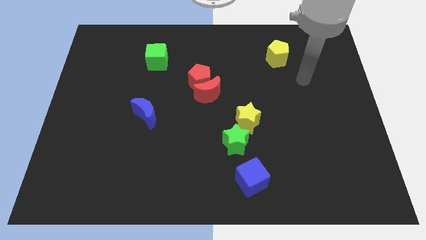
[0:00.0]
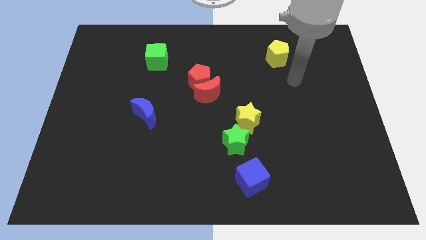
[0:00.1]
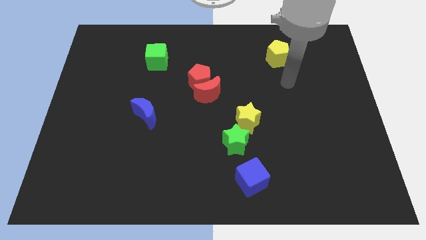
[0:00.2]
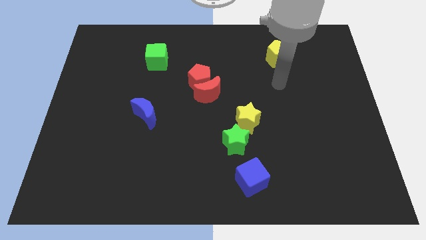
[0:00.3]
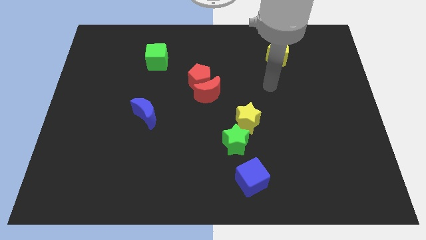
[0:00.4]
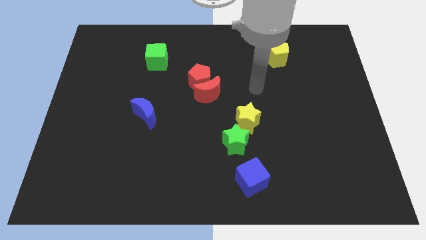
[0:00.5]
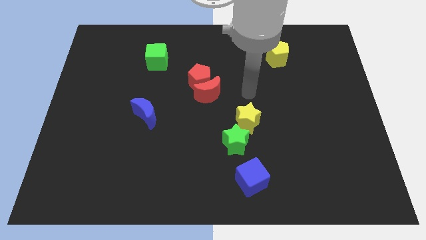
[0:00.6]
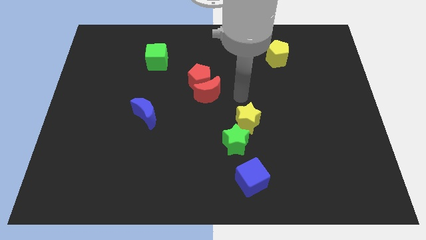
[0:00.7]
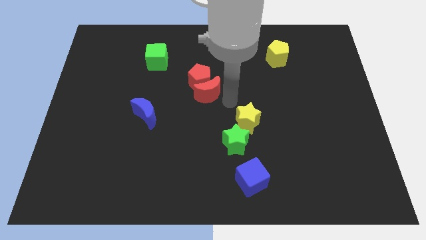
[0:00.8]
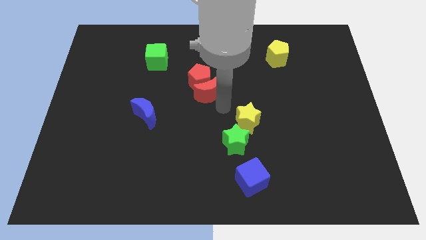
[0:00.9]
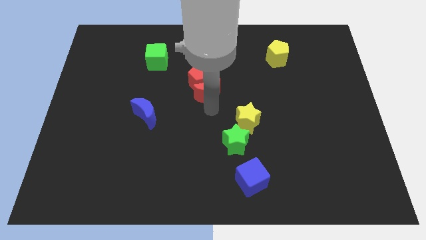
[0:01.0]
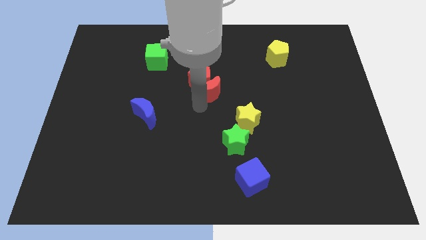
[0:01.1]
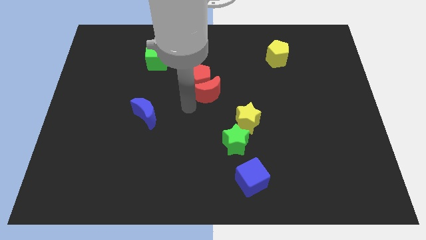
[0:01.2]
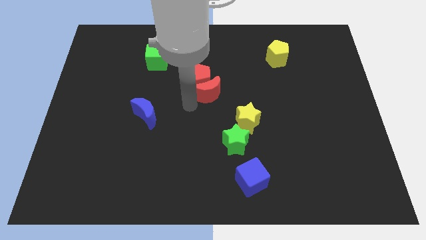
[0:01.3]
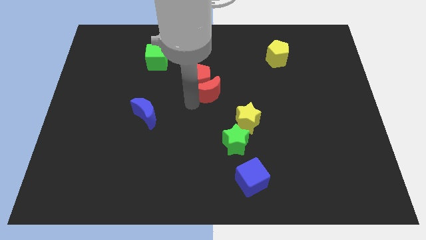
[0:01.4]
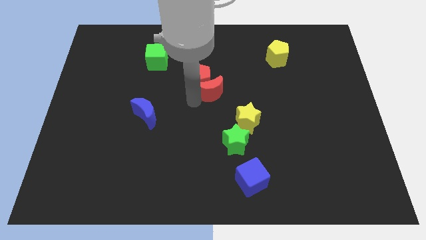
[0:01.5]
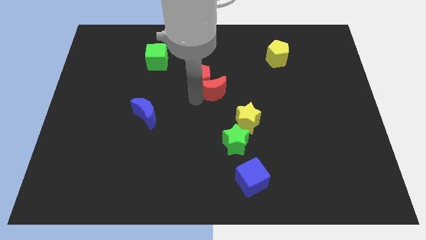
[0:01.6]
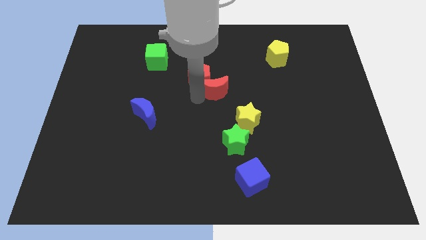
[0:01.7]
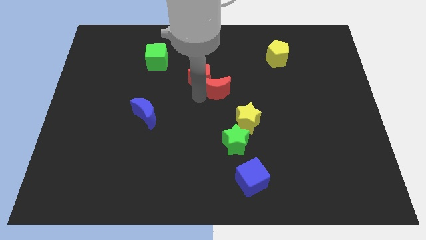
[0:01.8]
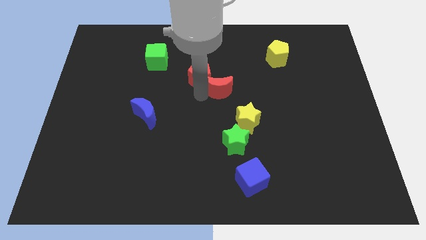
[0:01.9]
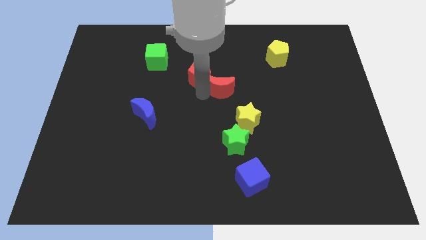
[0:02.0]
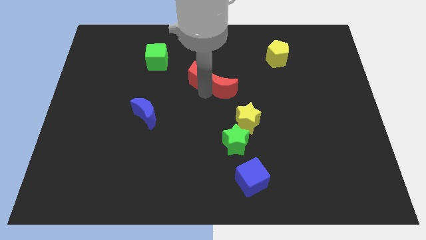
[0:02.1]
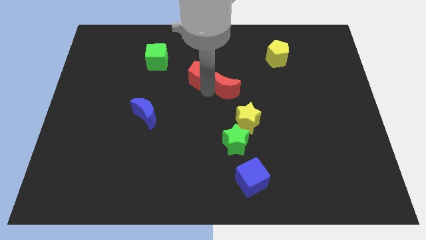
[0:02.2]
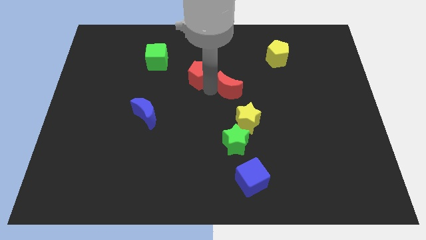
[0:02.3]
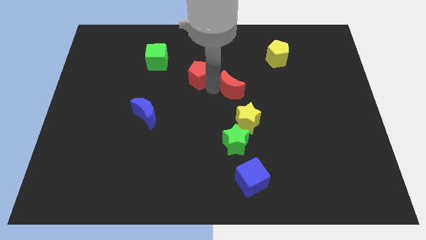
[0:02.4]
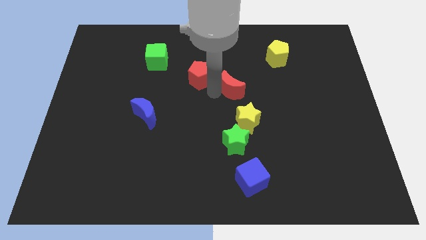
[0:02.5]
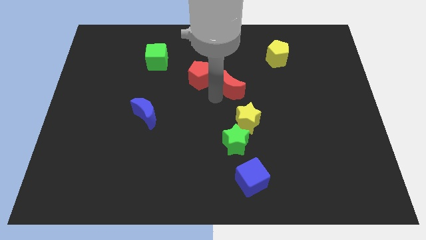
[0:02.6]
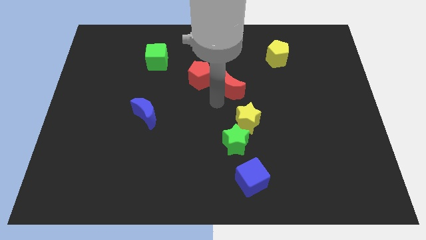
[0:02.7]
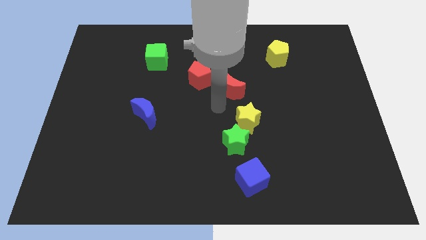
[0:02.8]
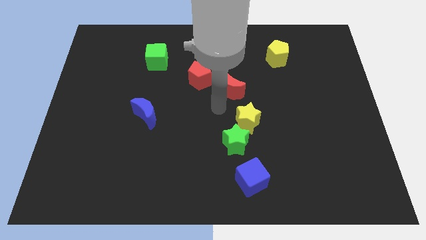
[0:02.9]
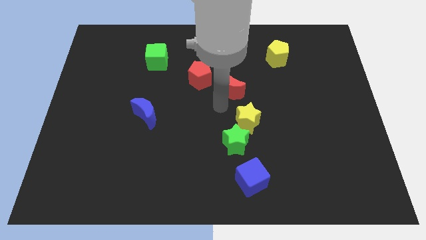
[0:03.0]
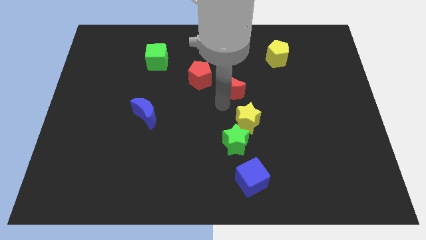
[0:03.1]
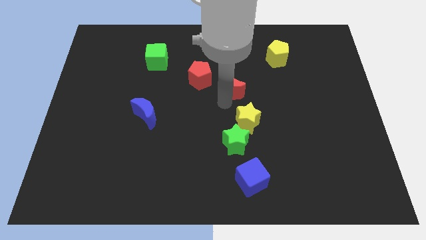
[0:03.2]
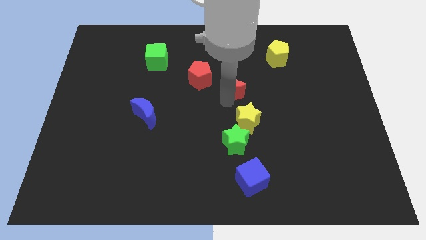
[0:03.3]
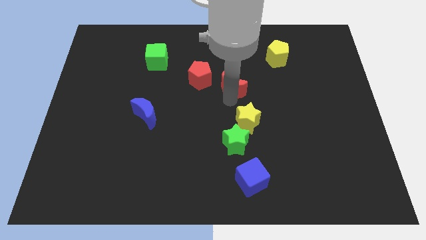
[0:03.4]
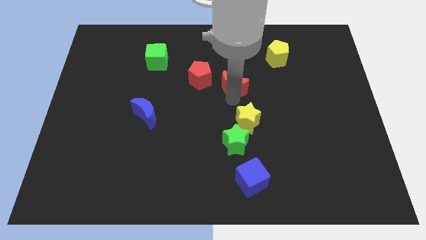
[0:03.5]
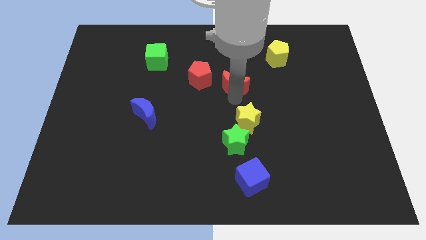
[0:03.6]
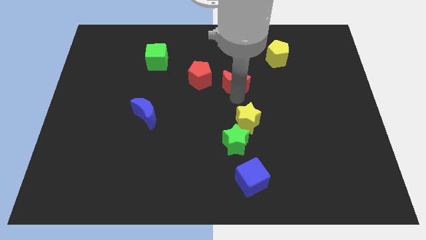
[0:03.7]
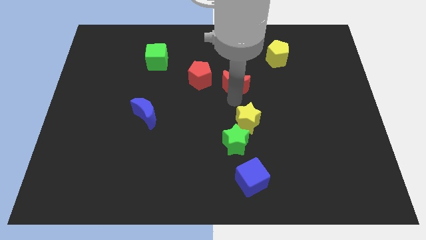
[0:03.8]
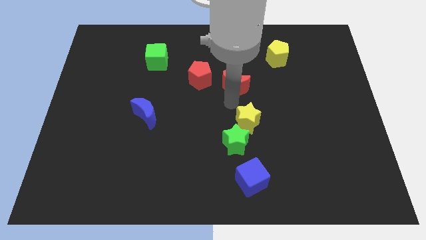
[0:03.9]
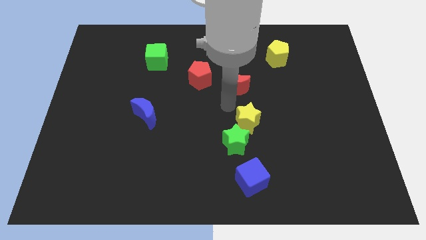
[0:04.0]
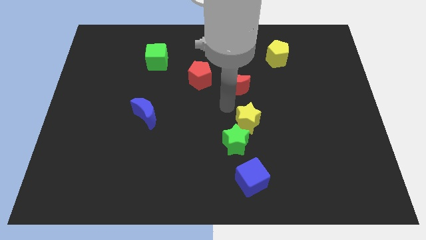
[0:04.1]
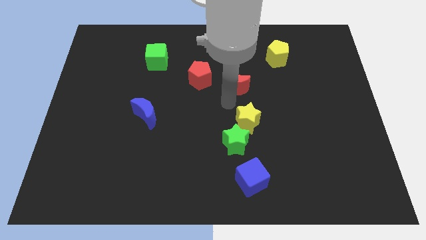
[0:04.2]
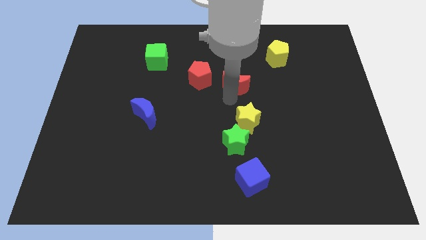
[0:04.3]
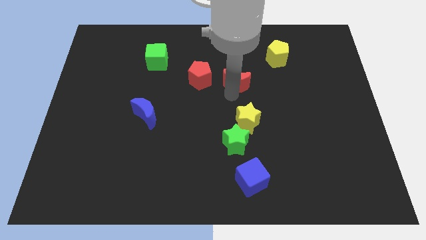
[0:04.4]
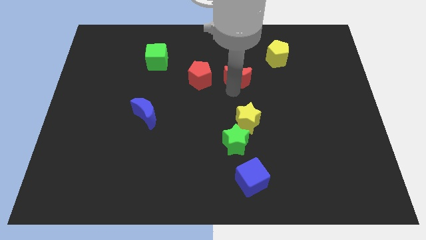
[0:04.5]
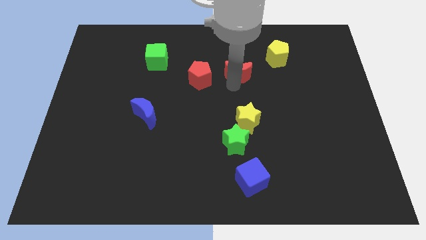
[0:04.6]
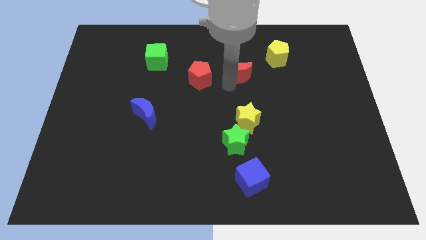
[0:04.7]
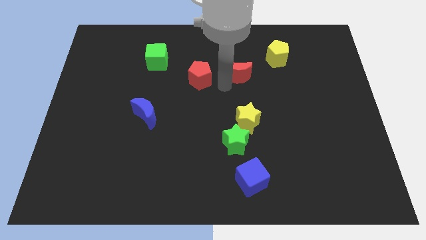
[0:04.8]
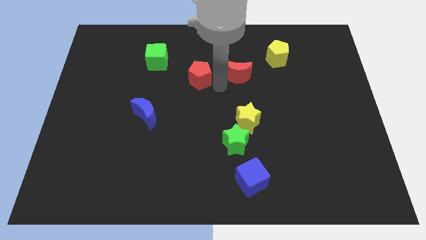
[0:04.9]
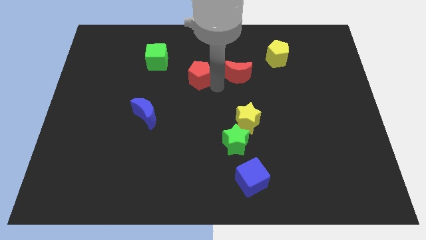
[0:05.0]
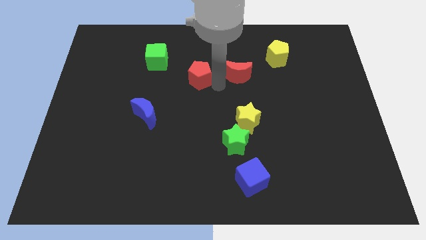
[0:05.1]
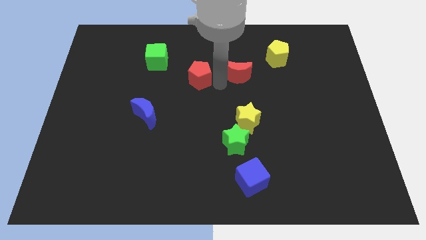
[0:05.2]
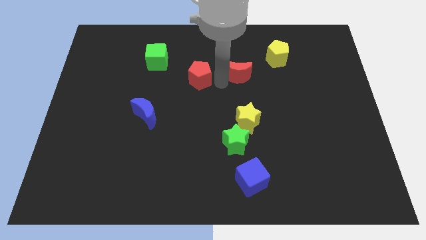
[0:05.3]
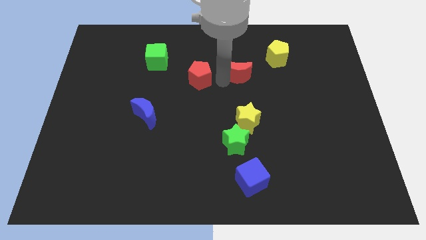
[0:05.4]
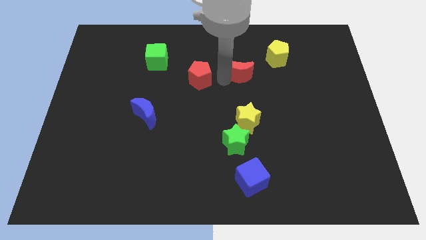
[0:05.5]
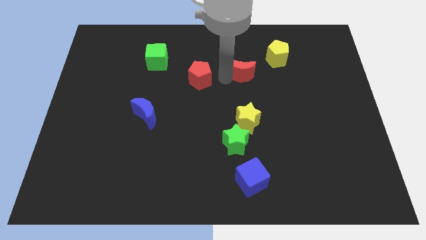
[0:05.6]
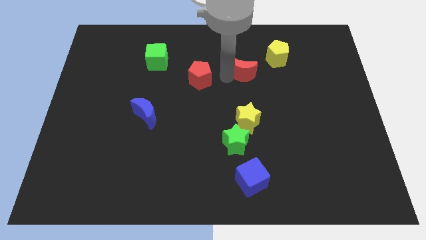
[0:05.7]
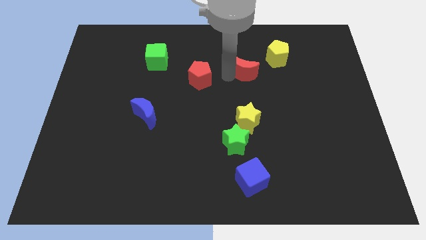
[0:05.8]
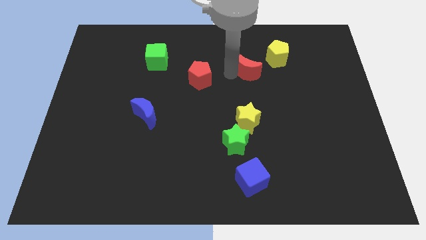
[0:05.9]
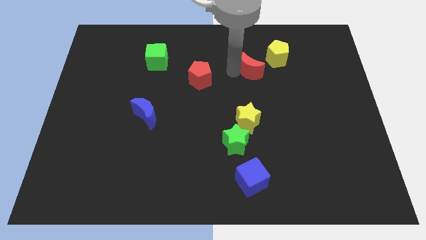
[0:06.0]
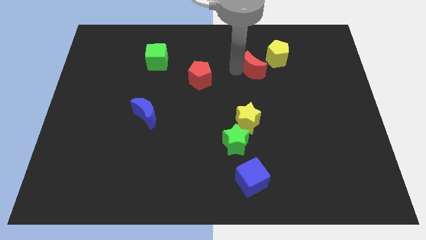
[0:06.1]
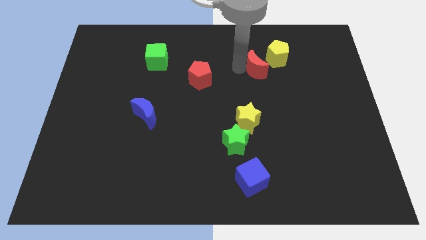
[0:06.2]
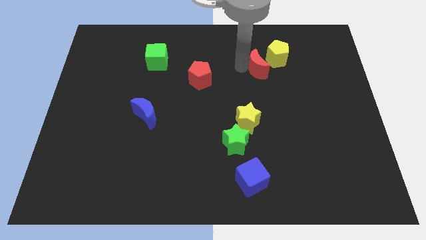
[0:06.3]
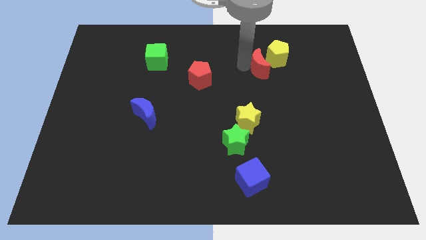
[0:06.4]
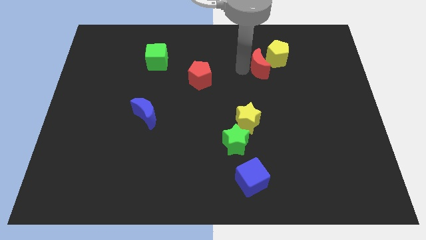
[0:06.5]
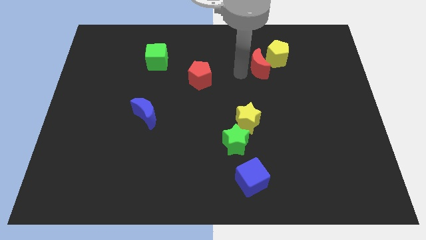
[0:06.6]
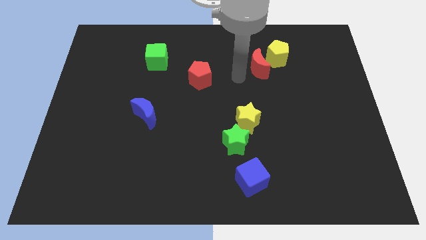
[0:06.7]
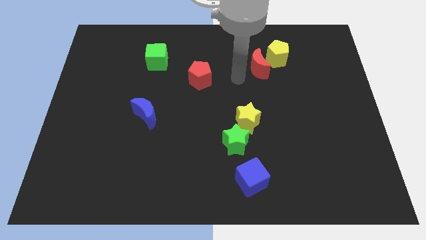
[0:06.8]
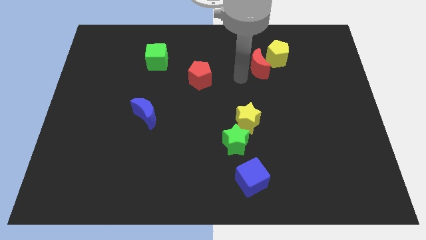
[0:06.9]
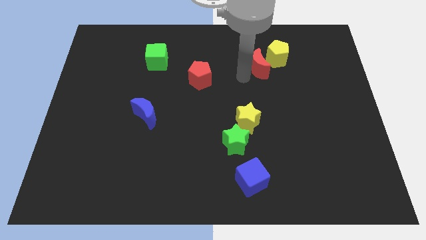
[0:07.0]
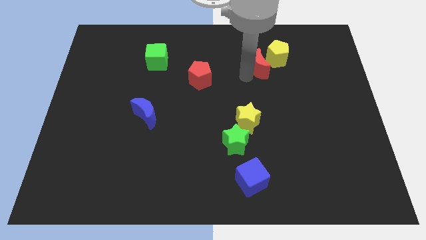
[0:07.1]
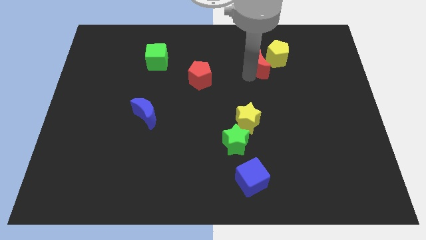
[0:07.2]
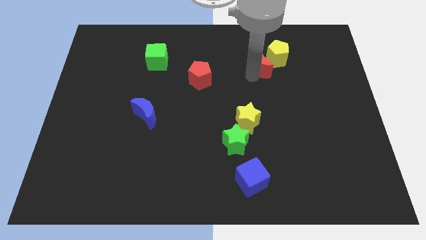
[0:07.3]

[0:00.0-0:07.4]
move the red moon towards the yellow pentagon
